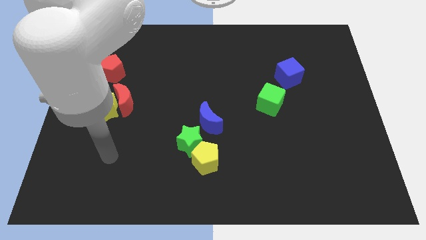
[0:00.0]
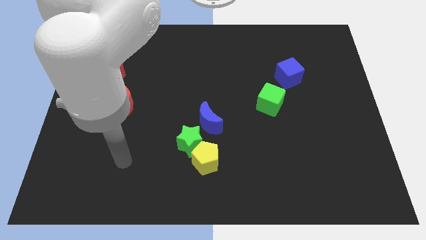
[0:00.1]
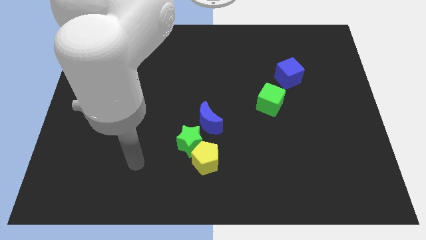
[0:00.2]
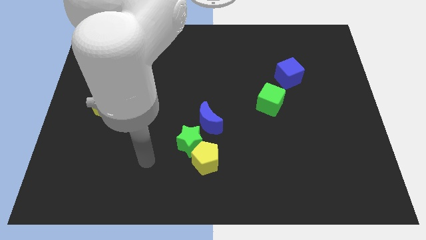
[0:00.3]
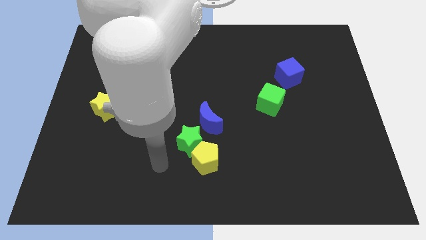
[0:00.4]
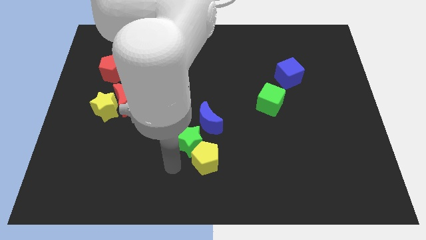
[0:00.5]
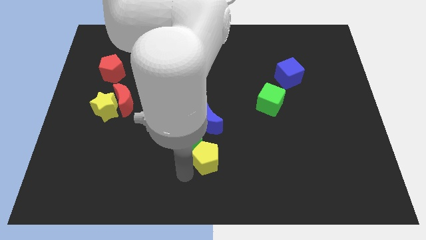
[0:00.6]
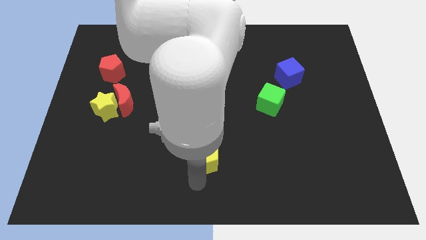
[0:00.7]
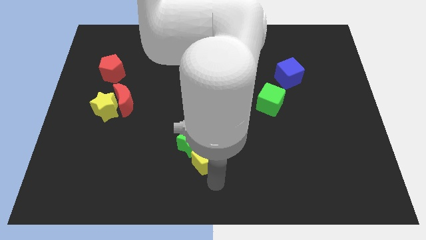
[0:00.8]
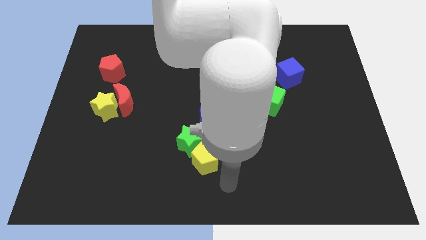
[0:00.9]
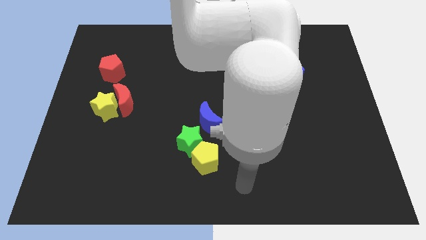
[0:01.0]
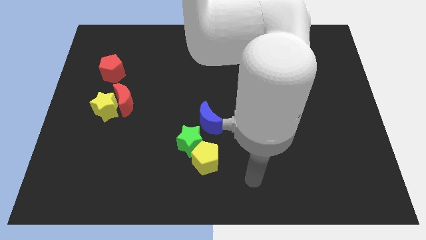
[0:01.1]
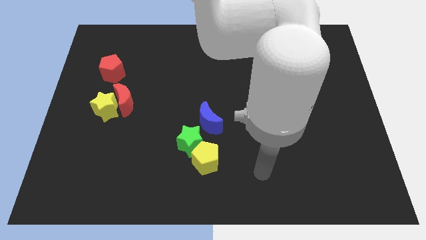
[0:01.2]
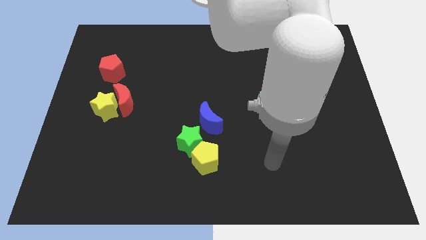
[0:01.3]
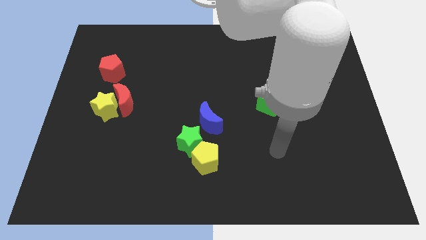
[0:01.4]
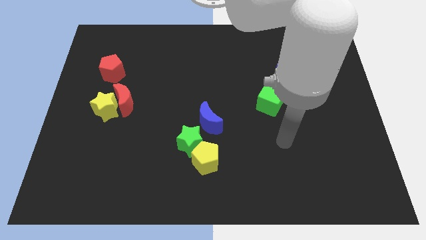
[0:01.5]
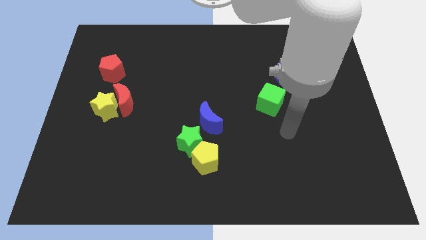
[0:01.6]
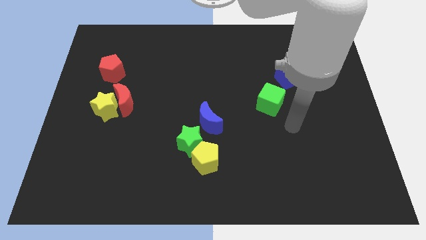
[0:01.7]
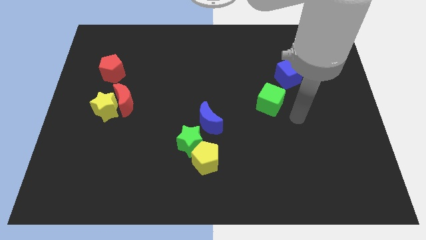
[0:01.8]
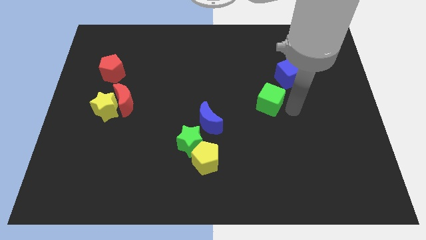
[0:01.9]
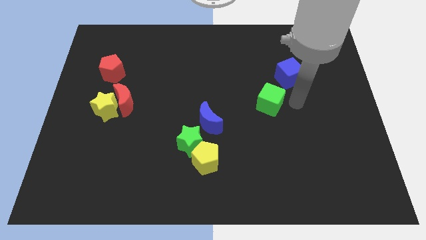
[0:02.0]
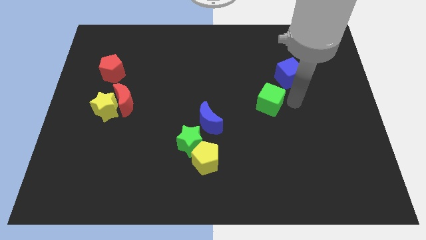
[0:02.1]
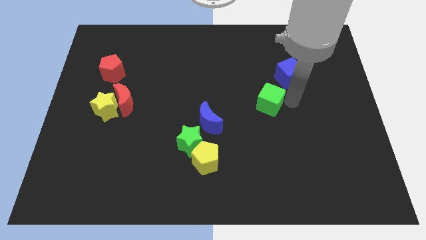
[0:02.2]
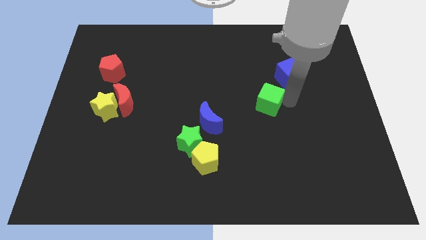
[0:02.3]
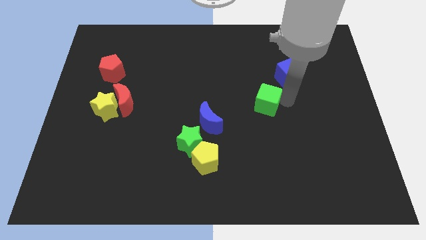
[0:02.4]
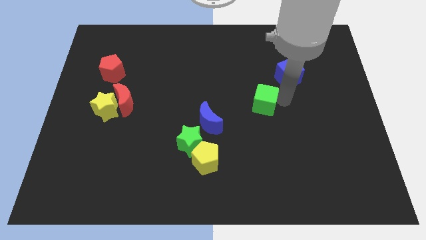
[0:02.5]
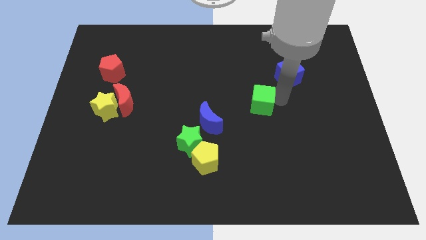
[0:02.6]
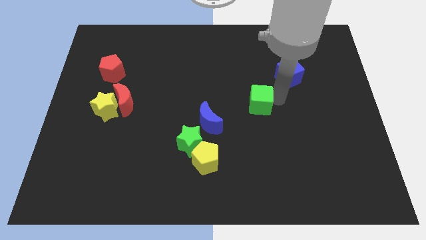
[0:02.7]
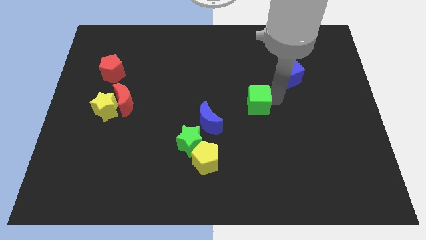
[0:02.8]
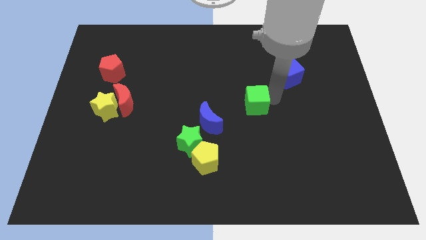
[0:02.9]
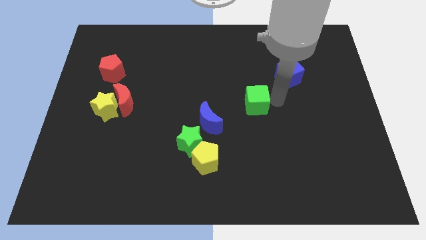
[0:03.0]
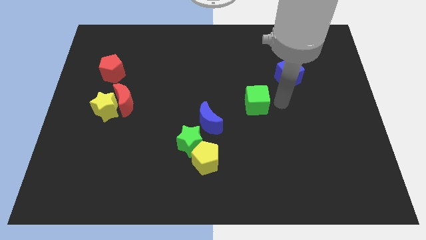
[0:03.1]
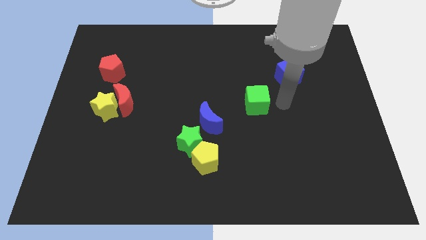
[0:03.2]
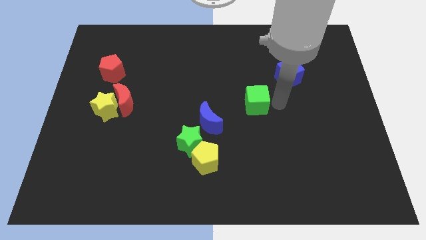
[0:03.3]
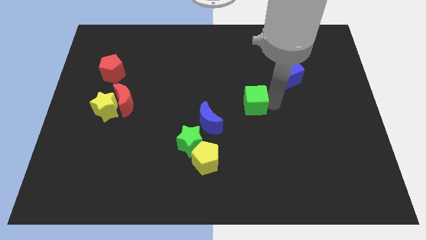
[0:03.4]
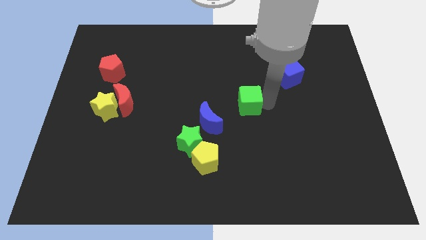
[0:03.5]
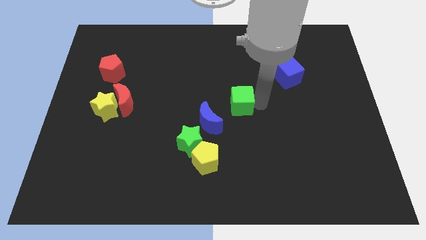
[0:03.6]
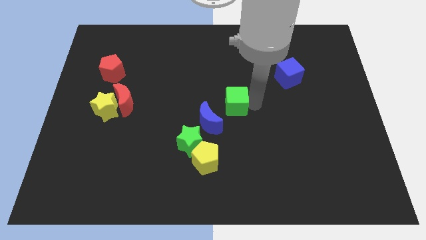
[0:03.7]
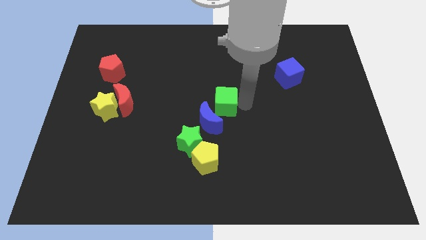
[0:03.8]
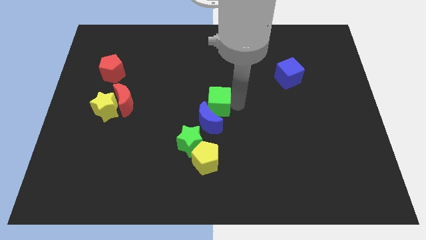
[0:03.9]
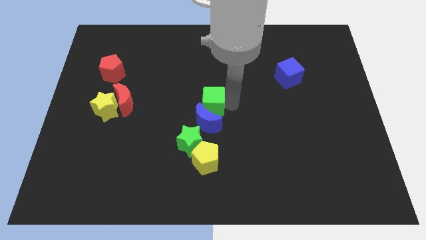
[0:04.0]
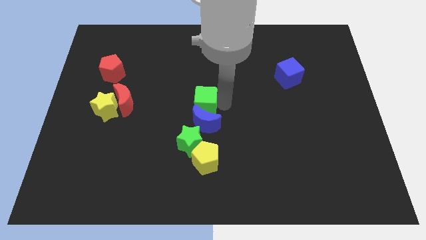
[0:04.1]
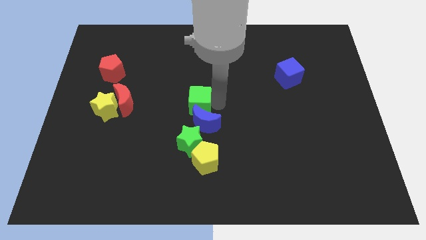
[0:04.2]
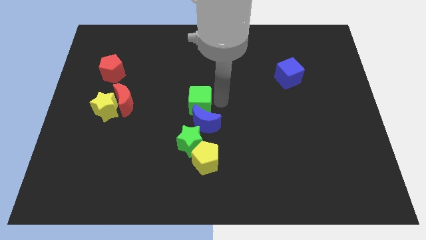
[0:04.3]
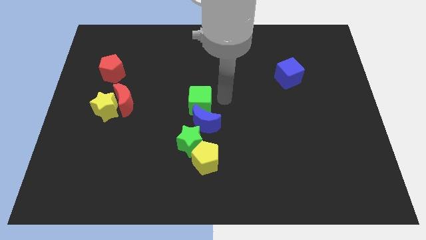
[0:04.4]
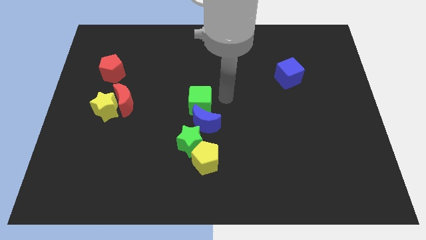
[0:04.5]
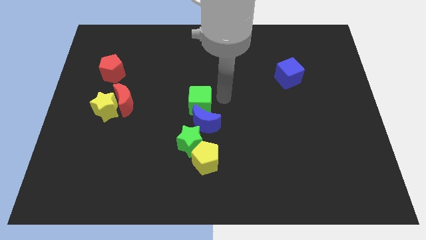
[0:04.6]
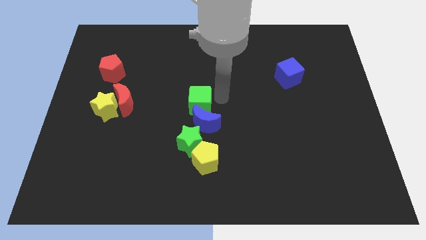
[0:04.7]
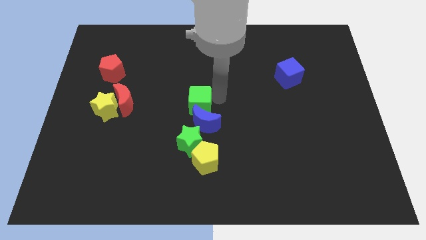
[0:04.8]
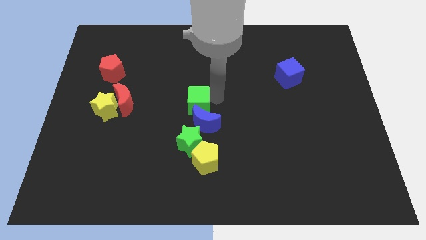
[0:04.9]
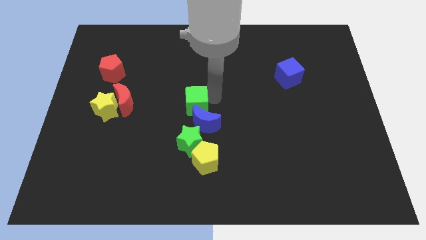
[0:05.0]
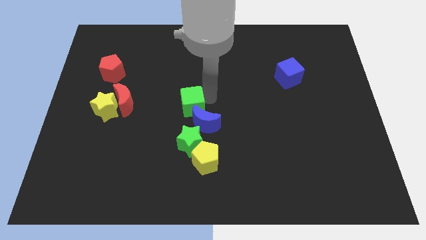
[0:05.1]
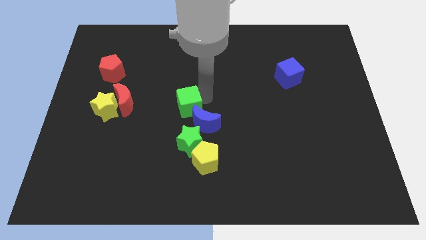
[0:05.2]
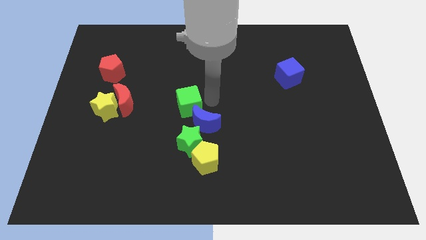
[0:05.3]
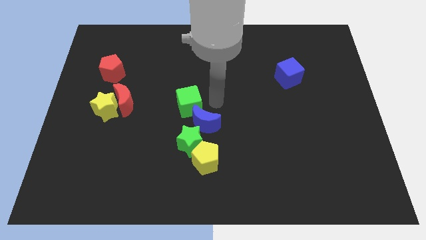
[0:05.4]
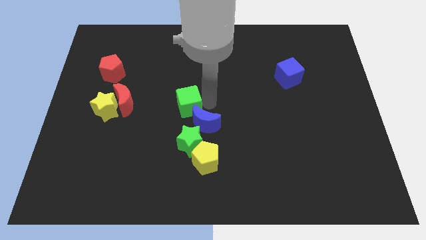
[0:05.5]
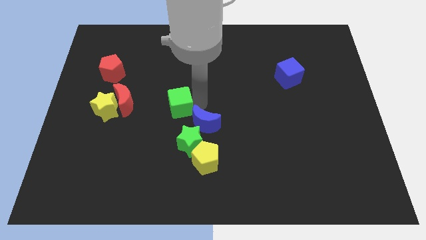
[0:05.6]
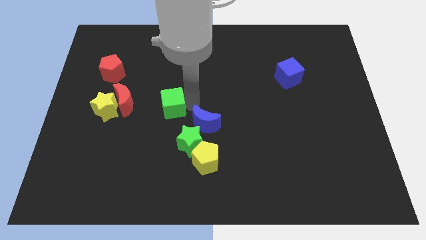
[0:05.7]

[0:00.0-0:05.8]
move the green cube to the right of the yellow star
